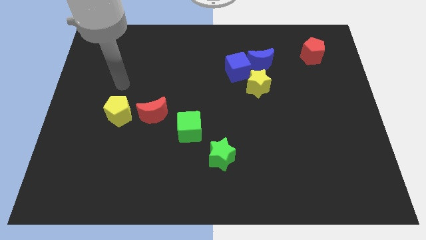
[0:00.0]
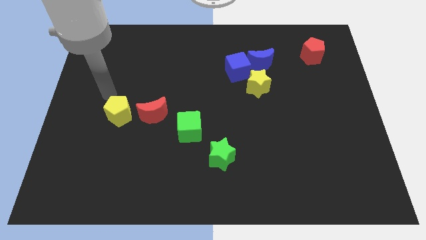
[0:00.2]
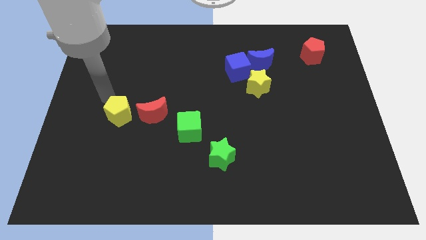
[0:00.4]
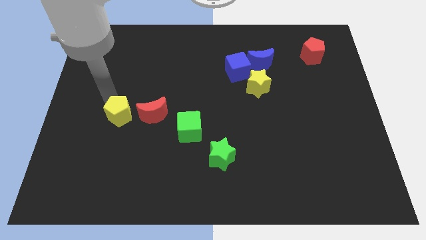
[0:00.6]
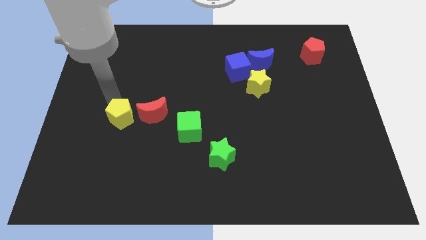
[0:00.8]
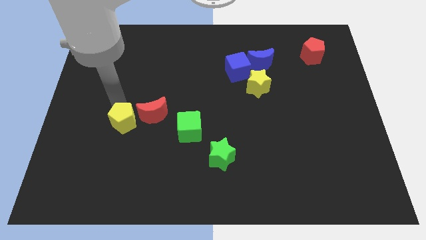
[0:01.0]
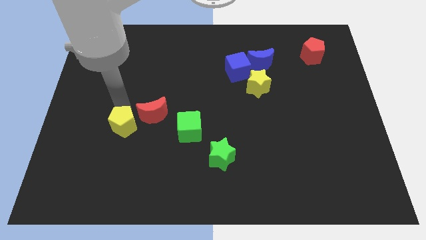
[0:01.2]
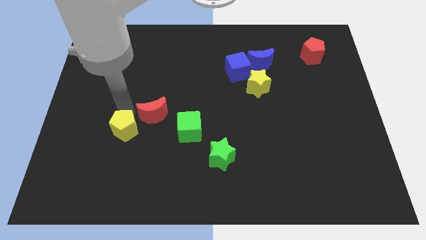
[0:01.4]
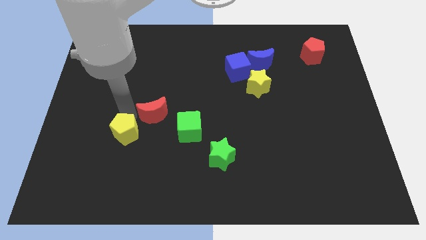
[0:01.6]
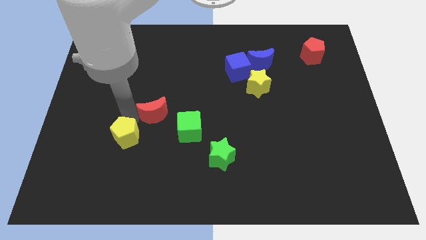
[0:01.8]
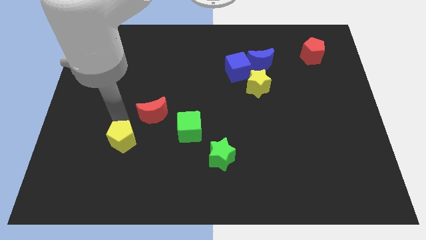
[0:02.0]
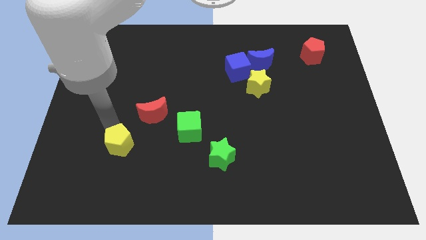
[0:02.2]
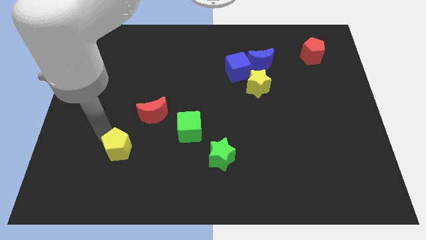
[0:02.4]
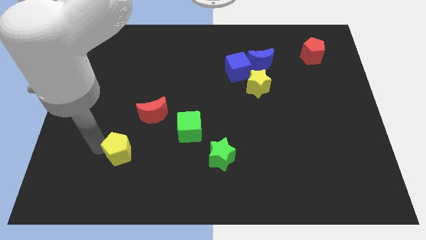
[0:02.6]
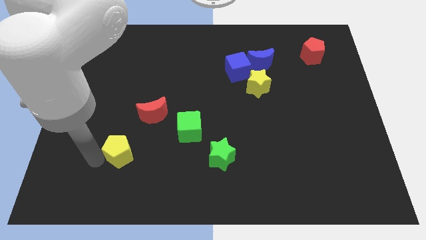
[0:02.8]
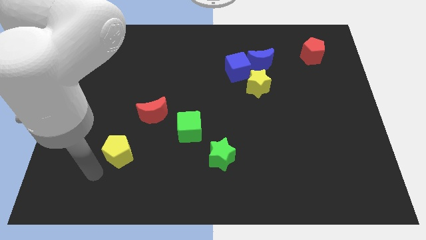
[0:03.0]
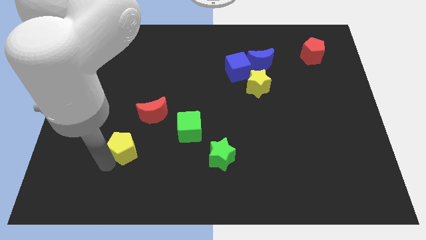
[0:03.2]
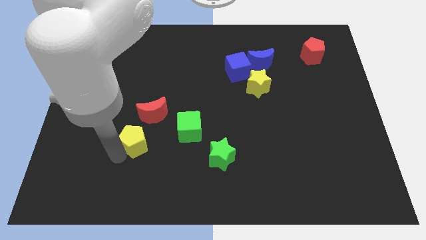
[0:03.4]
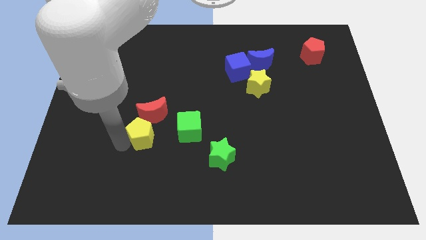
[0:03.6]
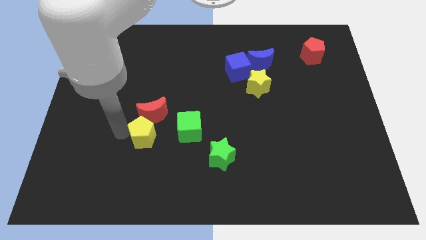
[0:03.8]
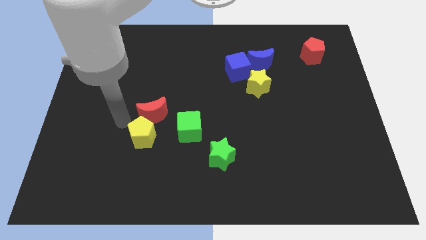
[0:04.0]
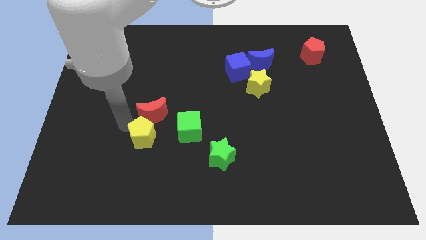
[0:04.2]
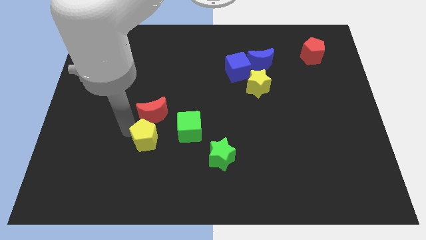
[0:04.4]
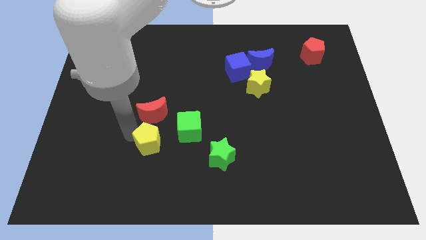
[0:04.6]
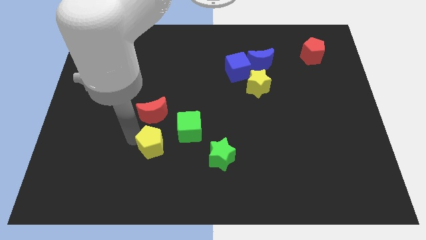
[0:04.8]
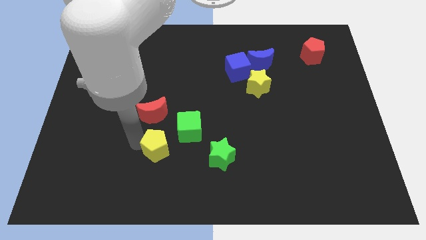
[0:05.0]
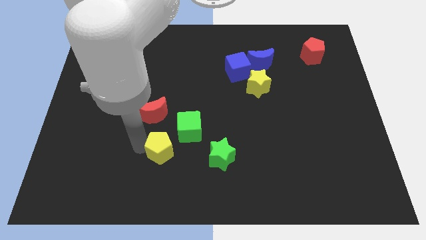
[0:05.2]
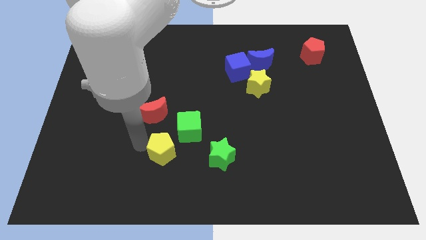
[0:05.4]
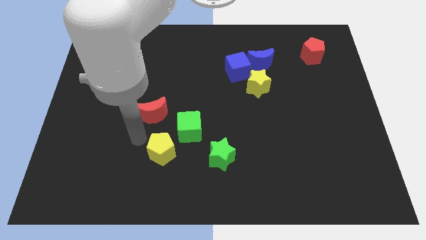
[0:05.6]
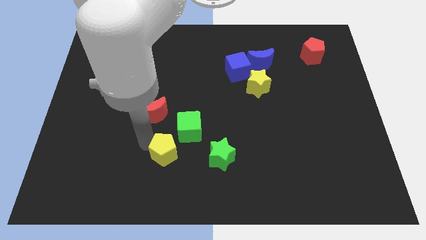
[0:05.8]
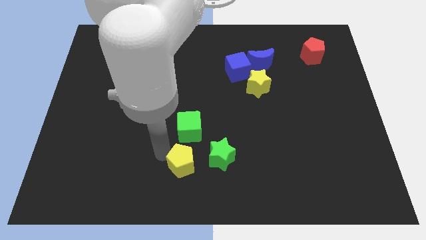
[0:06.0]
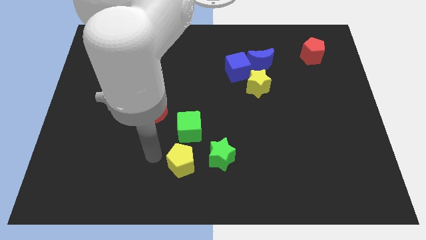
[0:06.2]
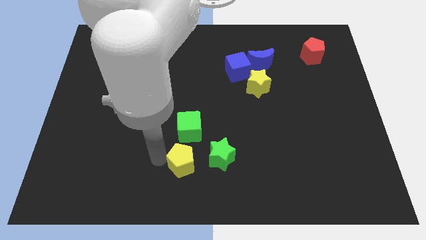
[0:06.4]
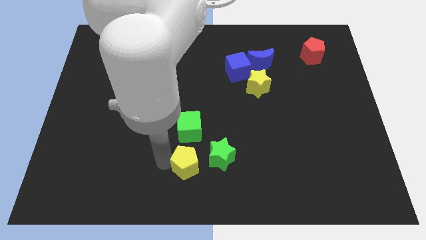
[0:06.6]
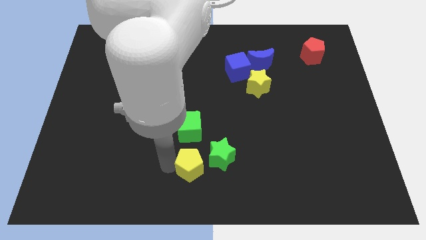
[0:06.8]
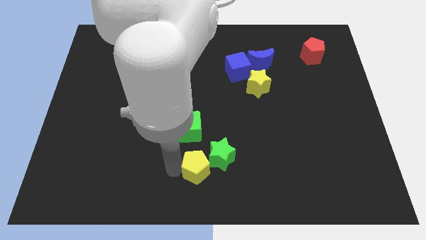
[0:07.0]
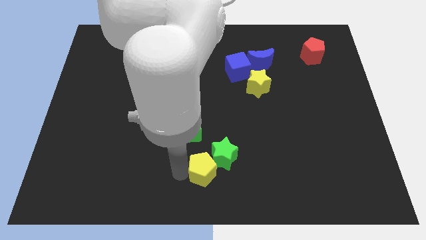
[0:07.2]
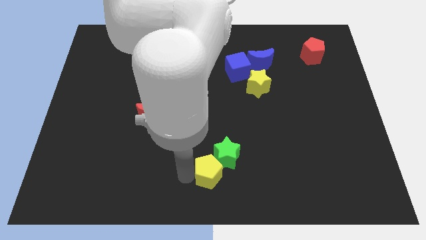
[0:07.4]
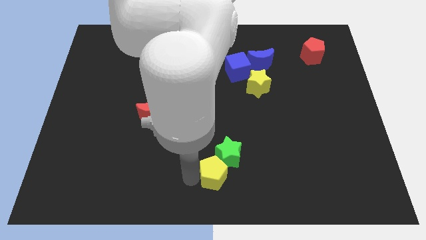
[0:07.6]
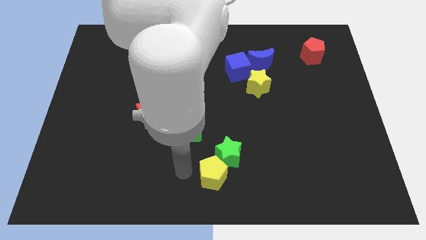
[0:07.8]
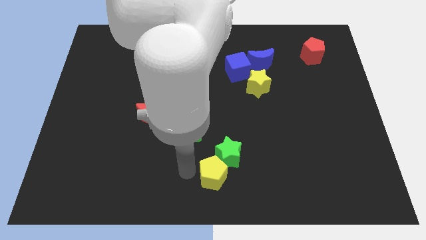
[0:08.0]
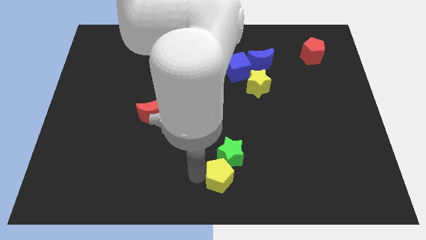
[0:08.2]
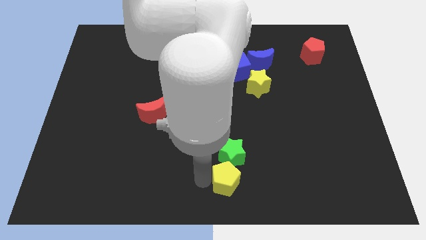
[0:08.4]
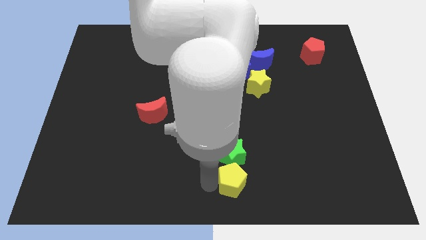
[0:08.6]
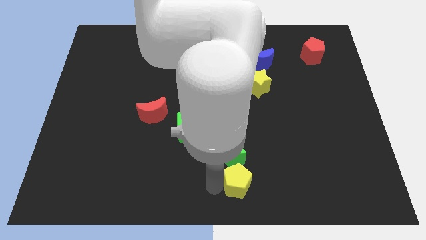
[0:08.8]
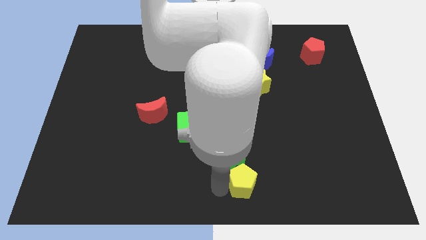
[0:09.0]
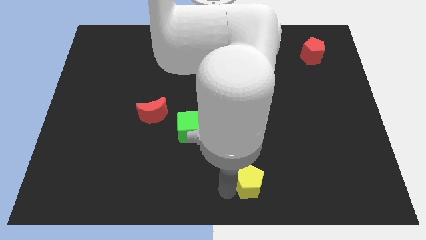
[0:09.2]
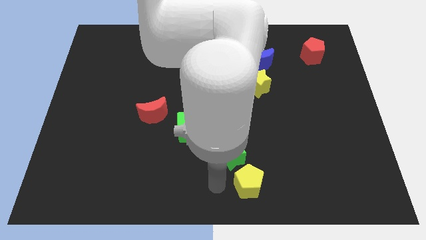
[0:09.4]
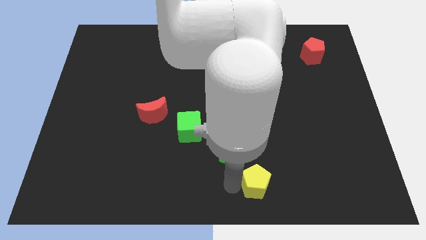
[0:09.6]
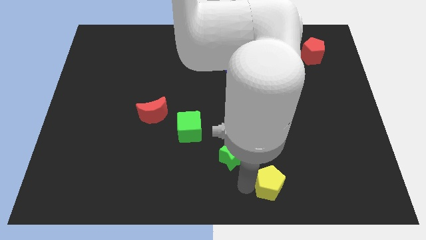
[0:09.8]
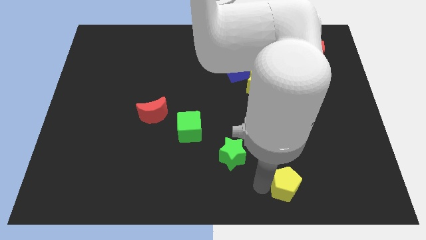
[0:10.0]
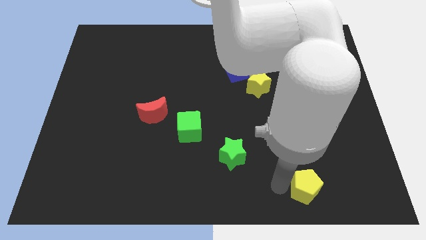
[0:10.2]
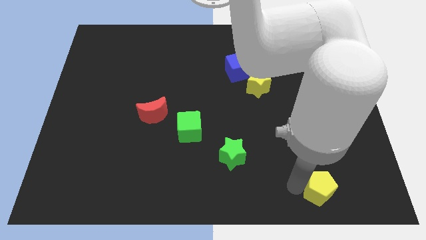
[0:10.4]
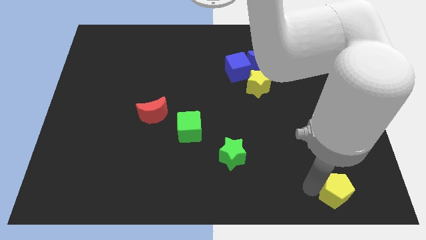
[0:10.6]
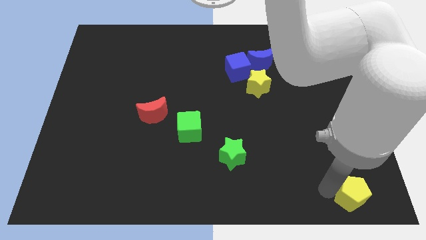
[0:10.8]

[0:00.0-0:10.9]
put the yellow pentagon to the lower right corner

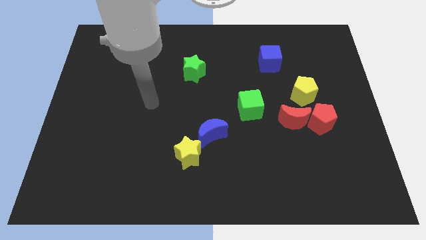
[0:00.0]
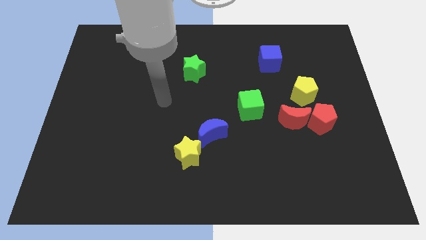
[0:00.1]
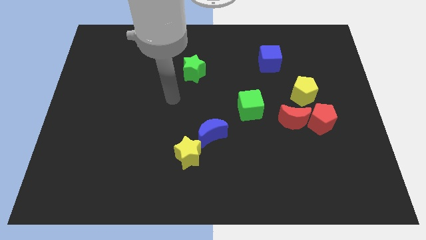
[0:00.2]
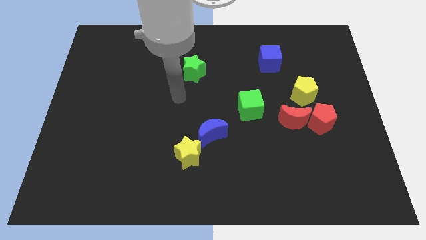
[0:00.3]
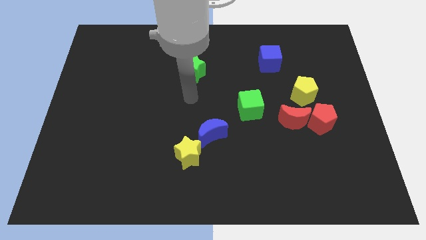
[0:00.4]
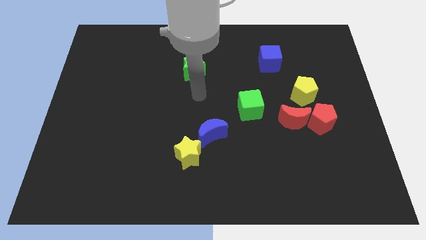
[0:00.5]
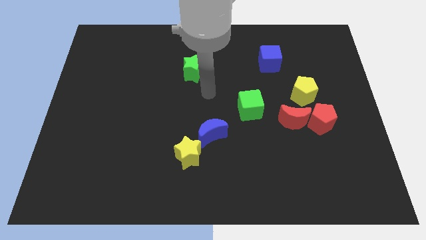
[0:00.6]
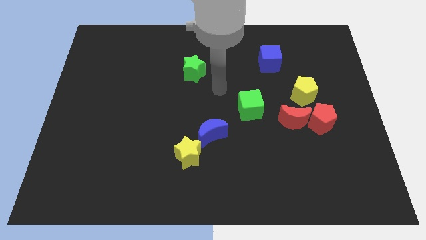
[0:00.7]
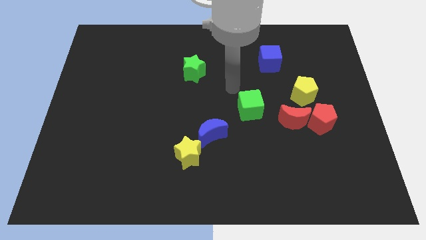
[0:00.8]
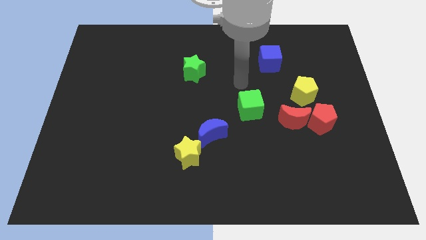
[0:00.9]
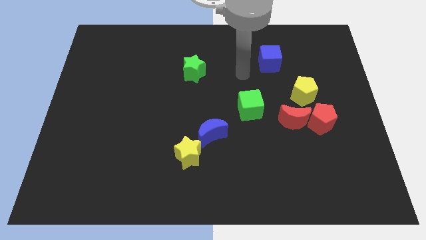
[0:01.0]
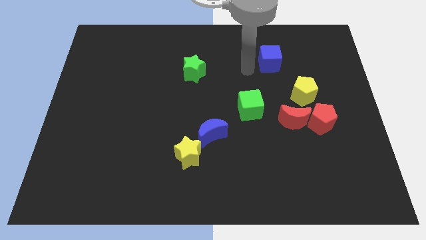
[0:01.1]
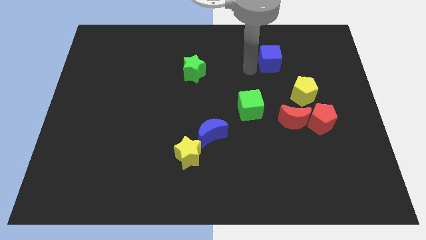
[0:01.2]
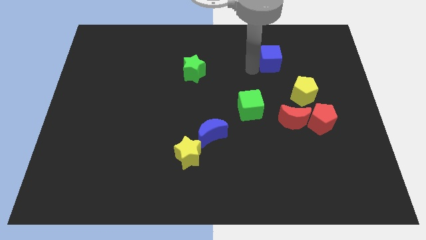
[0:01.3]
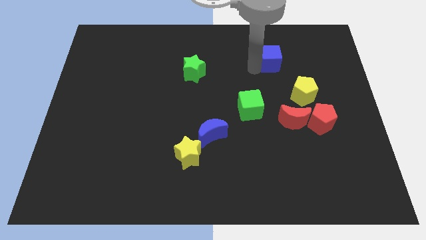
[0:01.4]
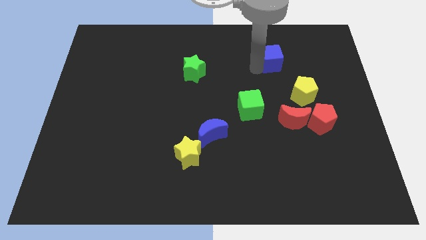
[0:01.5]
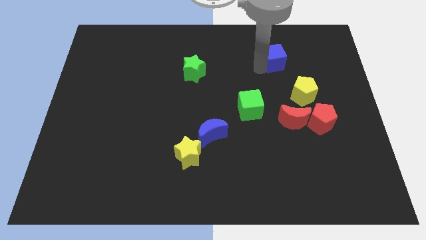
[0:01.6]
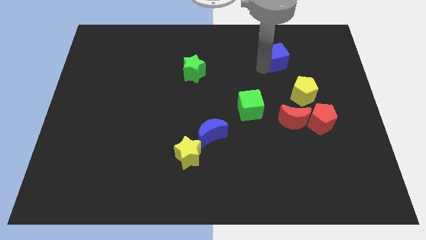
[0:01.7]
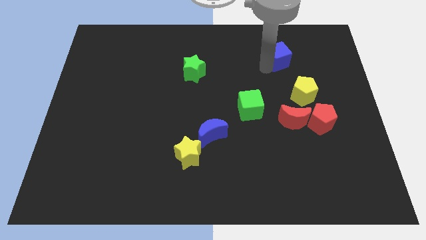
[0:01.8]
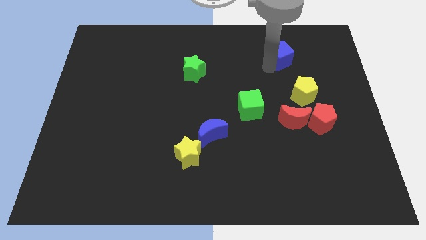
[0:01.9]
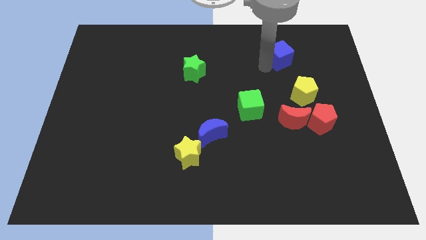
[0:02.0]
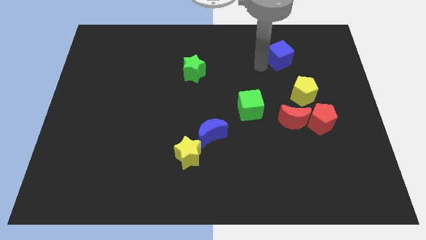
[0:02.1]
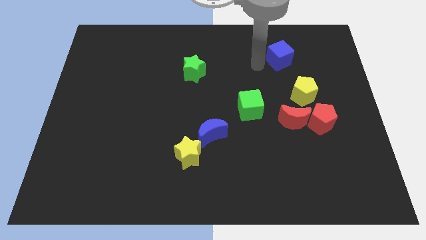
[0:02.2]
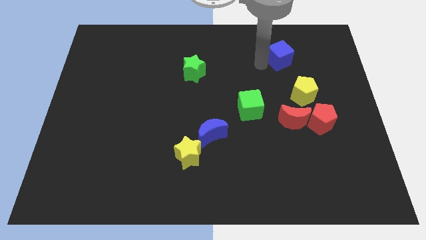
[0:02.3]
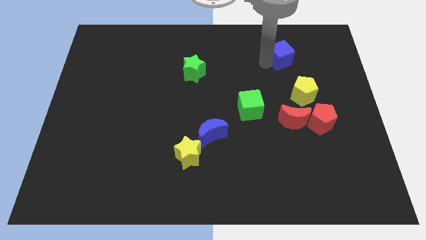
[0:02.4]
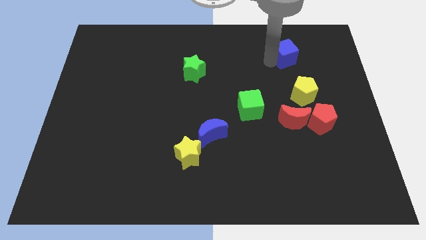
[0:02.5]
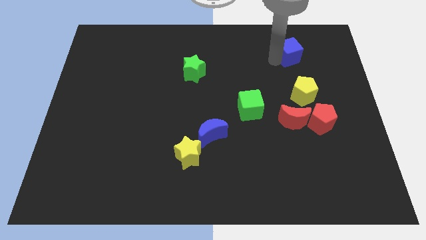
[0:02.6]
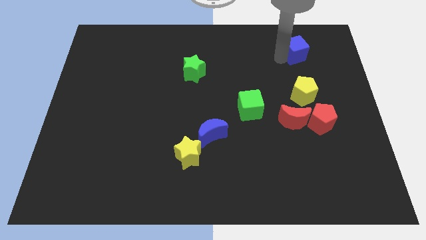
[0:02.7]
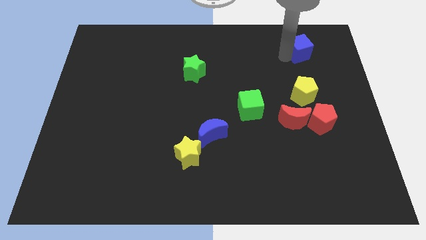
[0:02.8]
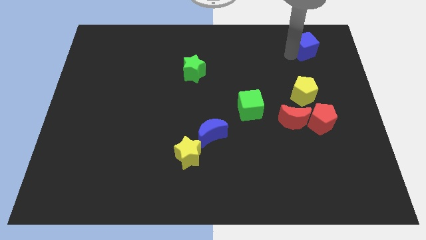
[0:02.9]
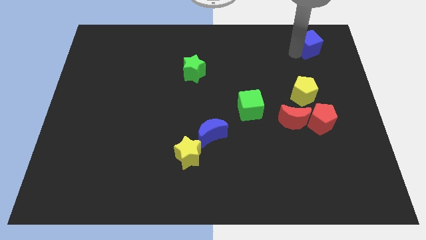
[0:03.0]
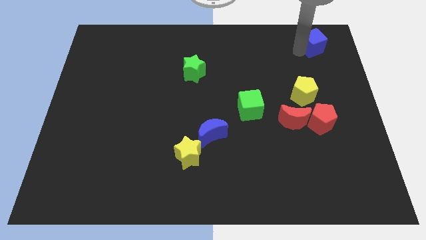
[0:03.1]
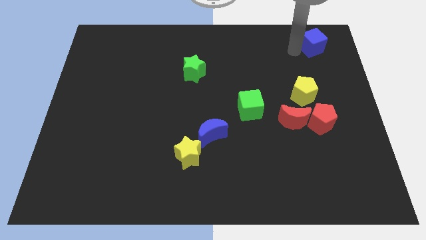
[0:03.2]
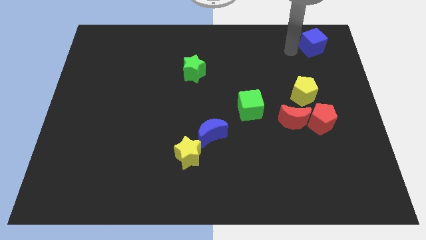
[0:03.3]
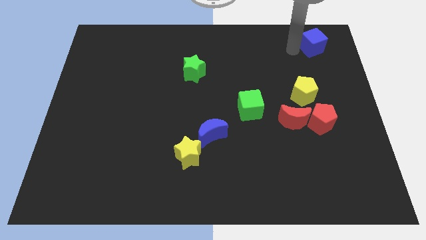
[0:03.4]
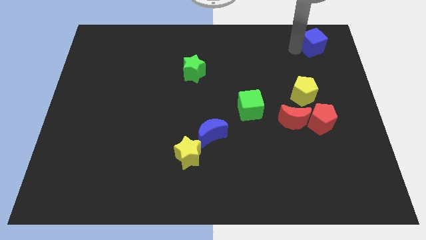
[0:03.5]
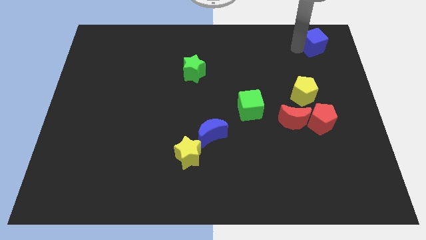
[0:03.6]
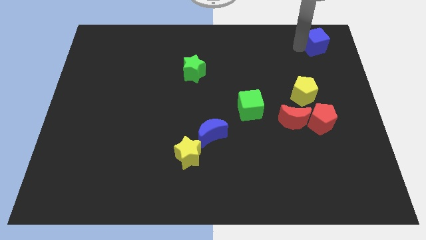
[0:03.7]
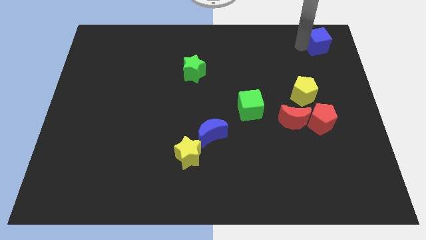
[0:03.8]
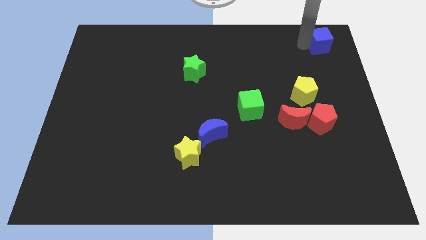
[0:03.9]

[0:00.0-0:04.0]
push the blue cube to the upper right corner
